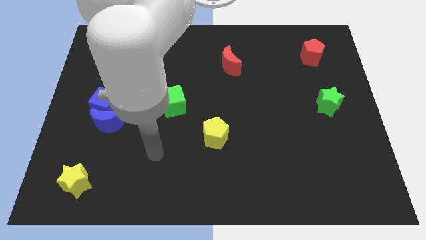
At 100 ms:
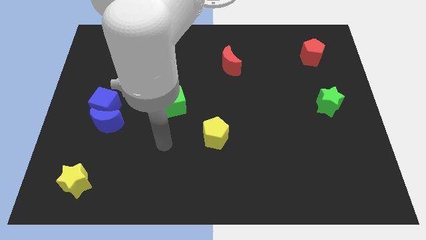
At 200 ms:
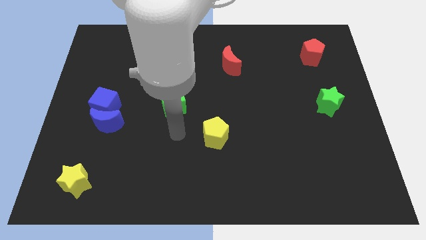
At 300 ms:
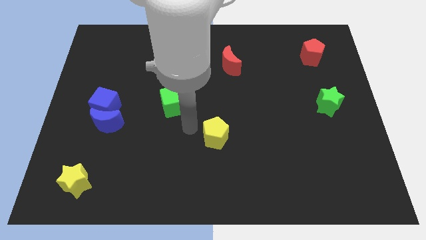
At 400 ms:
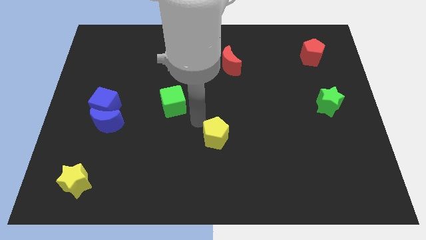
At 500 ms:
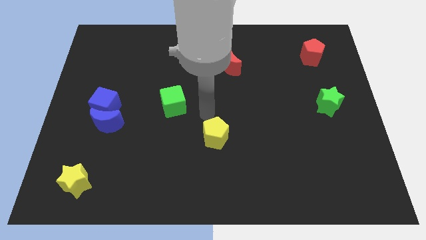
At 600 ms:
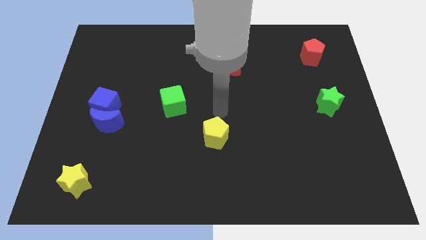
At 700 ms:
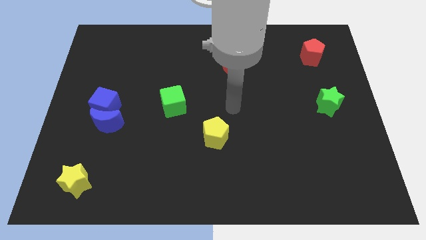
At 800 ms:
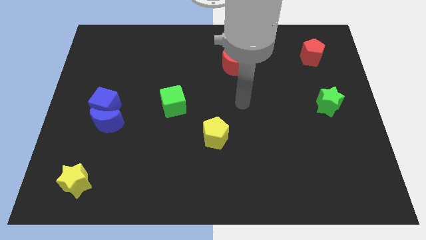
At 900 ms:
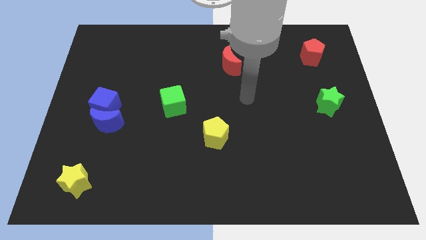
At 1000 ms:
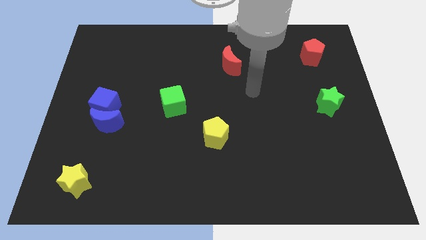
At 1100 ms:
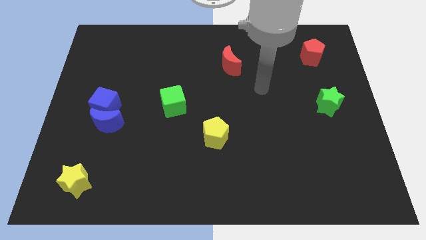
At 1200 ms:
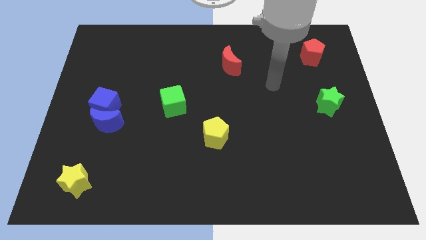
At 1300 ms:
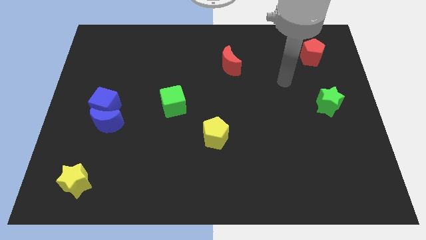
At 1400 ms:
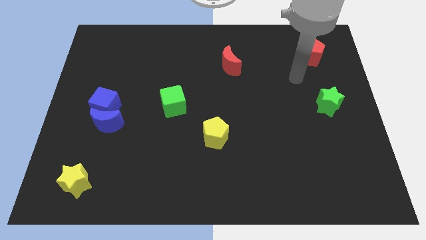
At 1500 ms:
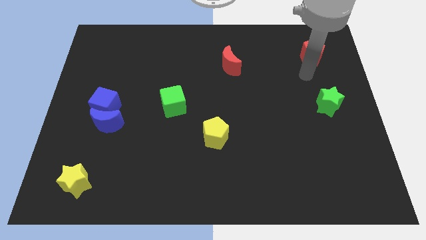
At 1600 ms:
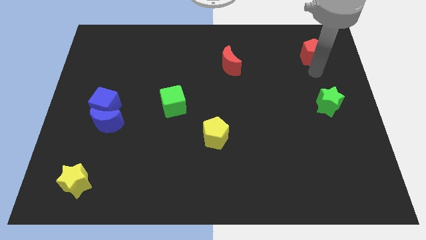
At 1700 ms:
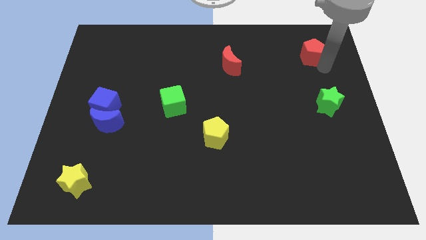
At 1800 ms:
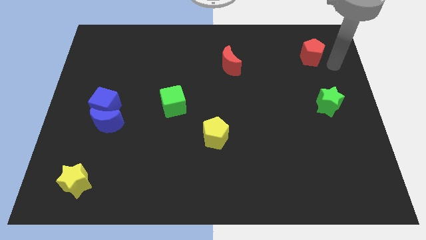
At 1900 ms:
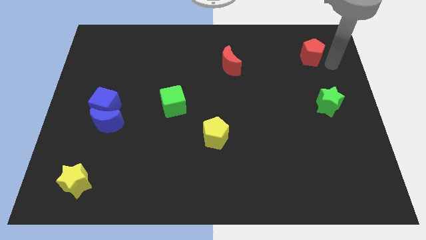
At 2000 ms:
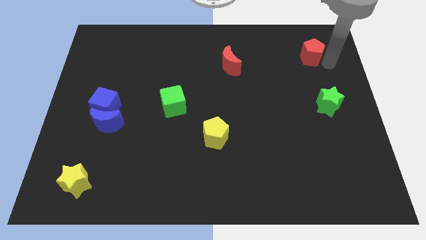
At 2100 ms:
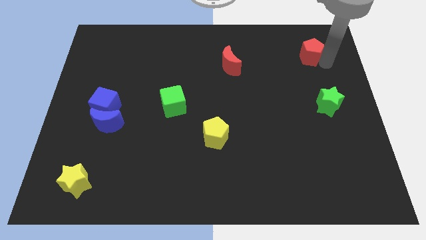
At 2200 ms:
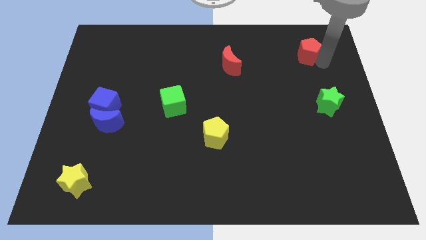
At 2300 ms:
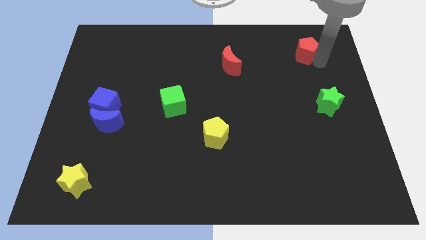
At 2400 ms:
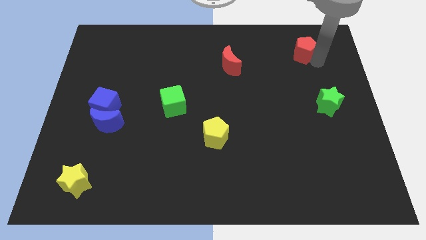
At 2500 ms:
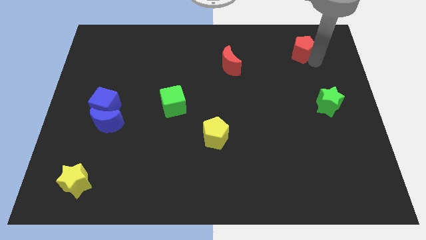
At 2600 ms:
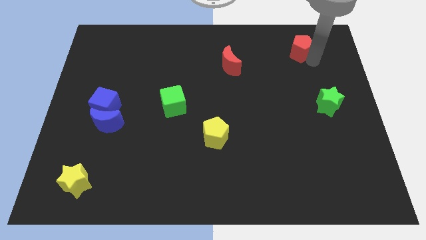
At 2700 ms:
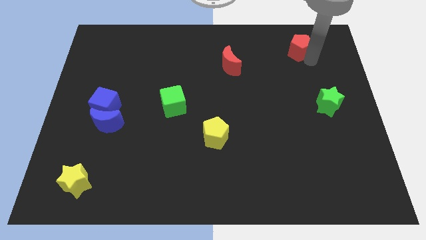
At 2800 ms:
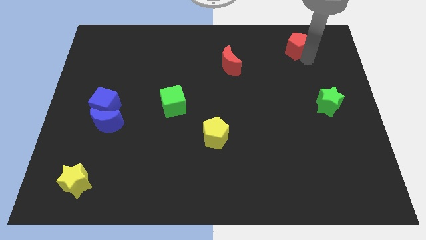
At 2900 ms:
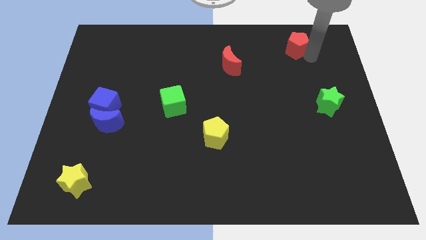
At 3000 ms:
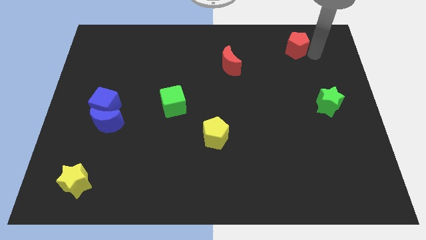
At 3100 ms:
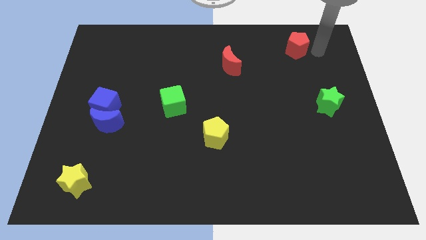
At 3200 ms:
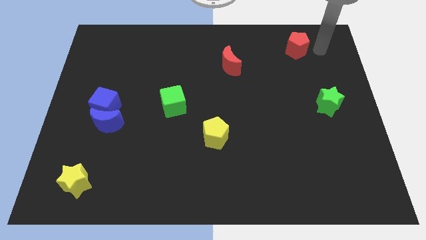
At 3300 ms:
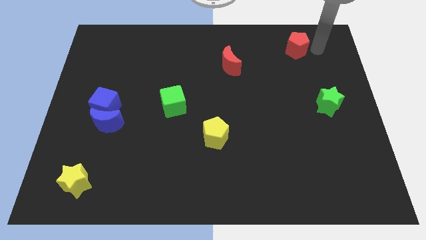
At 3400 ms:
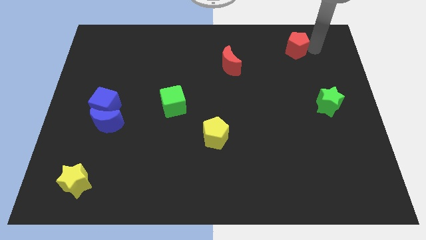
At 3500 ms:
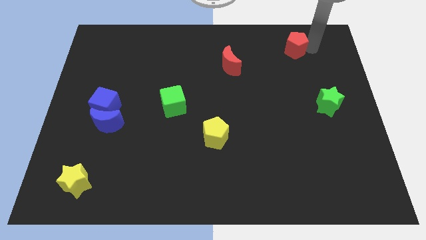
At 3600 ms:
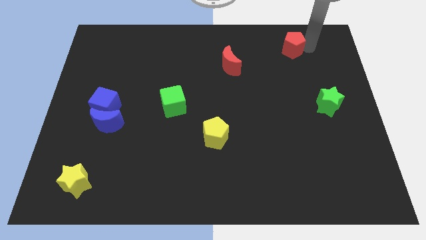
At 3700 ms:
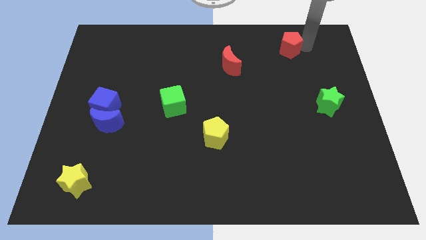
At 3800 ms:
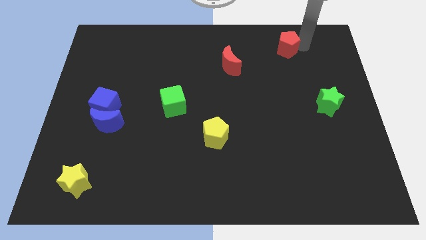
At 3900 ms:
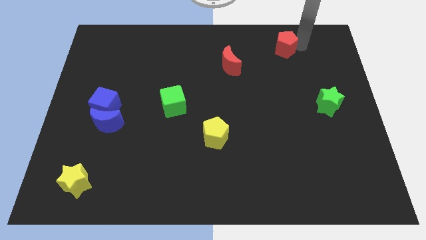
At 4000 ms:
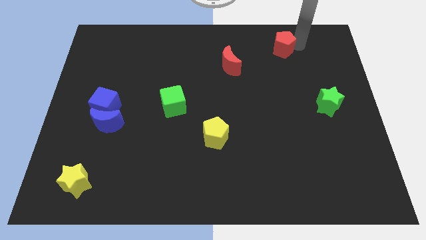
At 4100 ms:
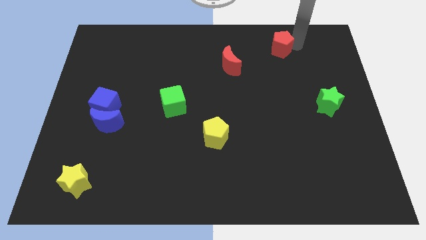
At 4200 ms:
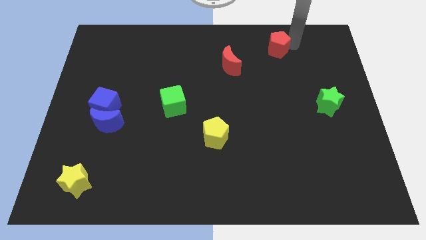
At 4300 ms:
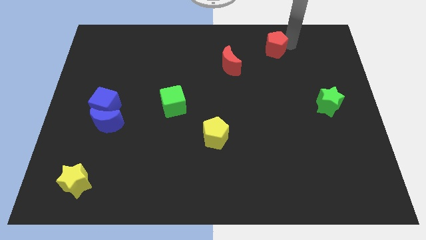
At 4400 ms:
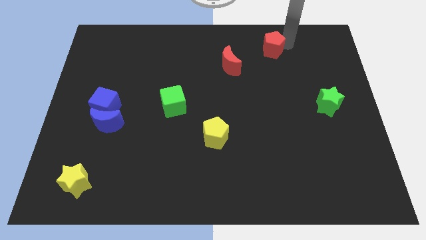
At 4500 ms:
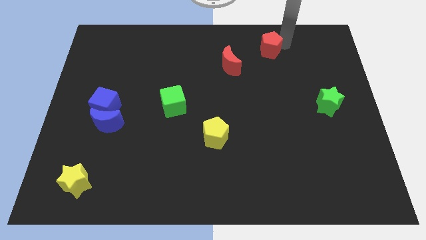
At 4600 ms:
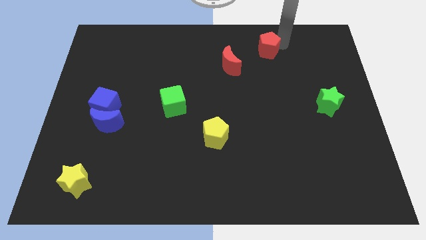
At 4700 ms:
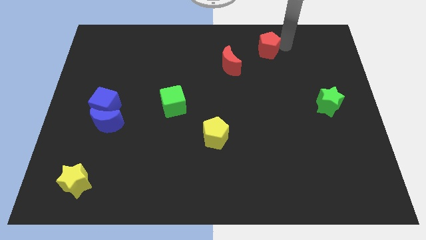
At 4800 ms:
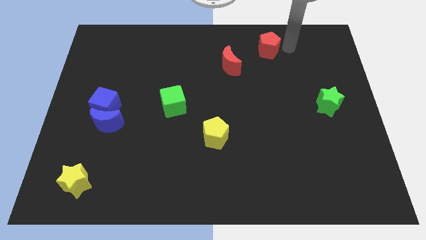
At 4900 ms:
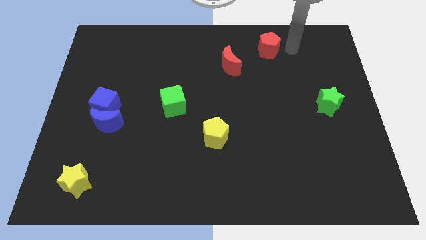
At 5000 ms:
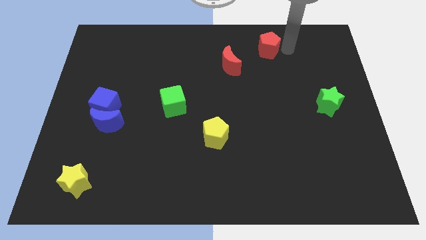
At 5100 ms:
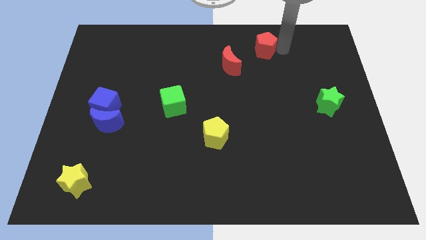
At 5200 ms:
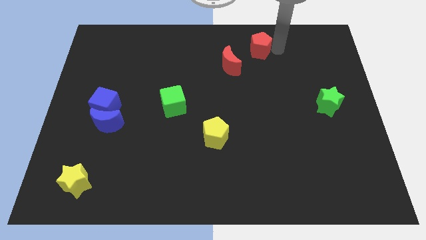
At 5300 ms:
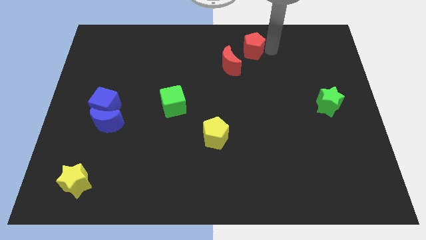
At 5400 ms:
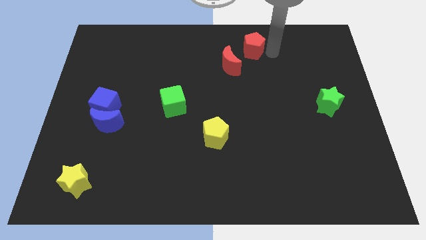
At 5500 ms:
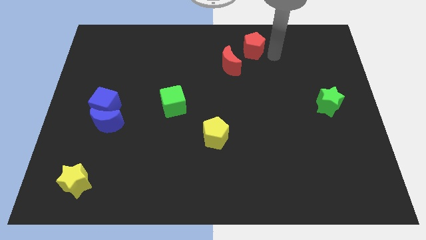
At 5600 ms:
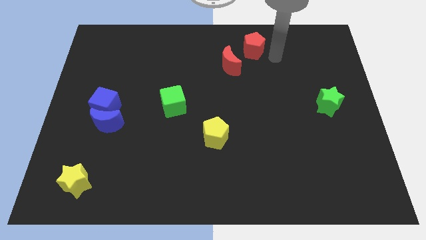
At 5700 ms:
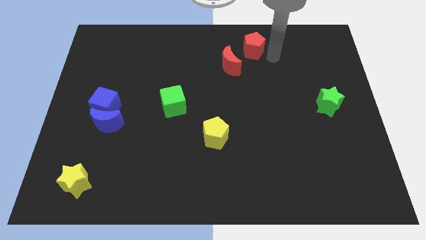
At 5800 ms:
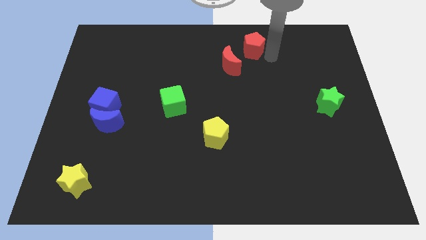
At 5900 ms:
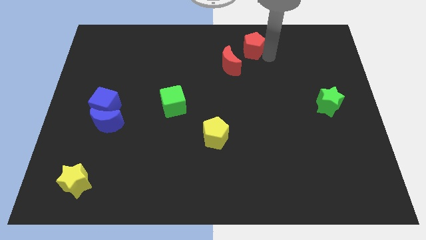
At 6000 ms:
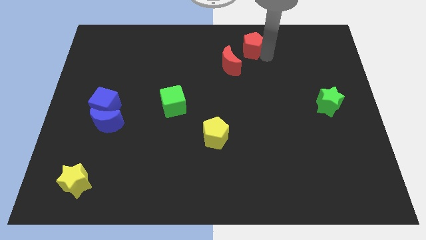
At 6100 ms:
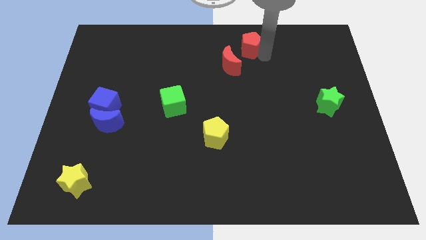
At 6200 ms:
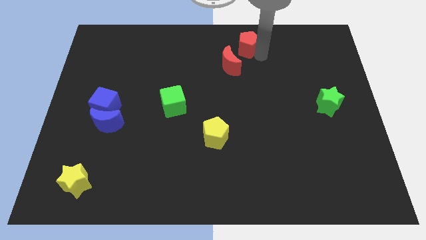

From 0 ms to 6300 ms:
put the red pentagon to the top
